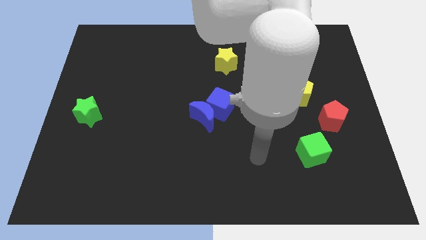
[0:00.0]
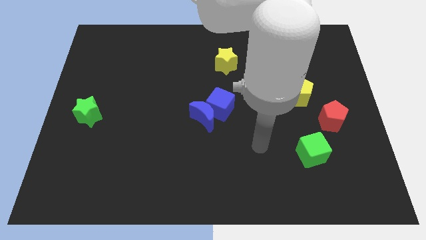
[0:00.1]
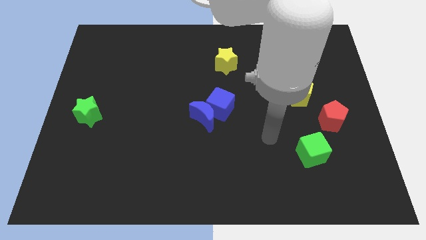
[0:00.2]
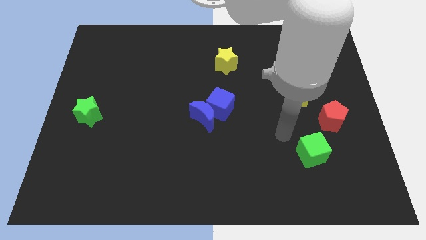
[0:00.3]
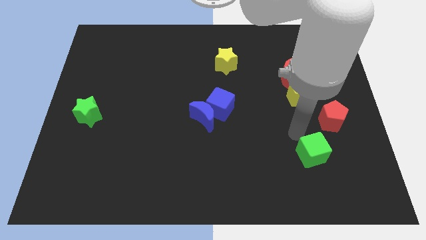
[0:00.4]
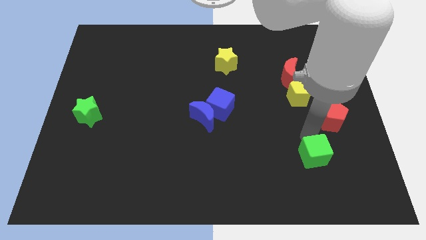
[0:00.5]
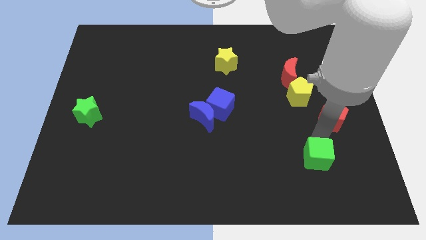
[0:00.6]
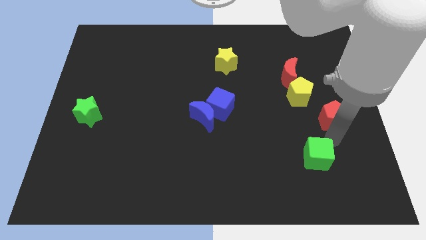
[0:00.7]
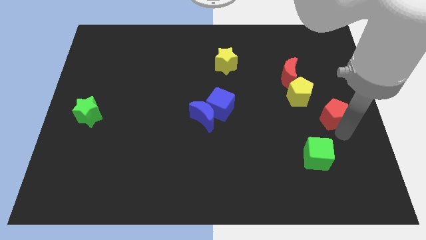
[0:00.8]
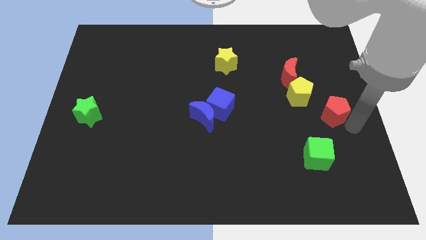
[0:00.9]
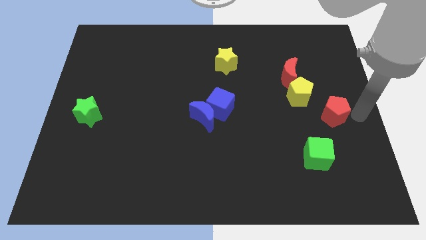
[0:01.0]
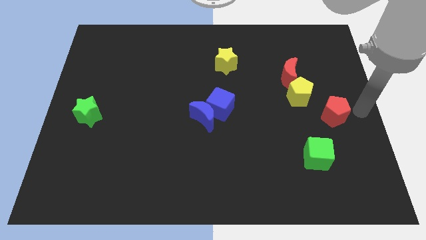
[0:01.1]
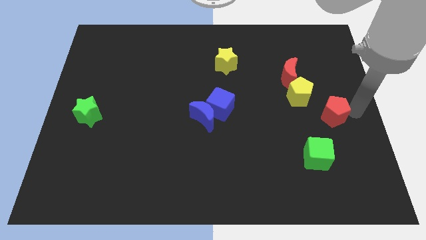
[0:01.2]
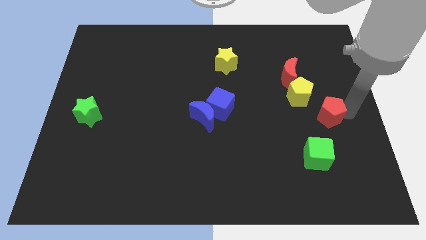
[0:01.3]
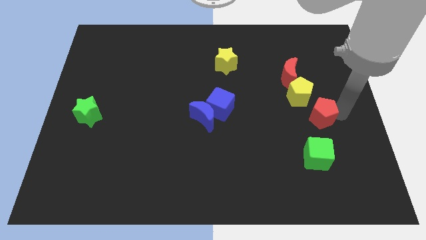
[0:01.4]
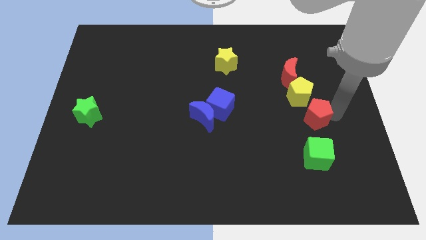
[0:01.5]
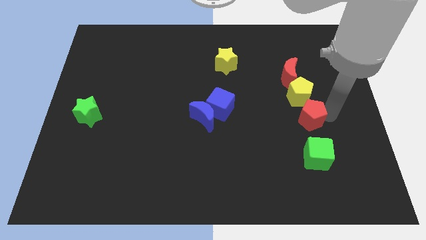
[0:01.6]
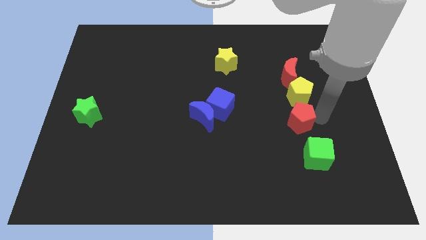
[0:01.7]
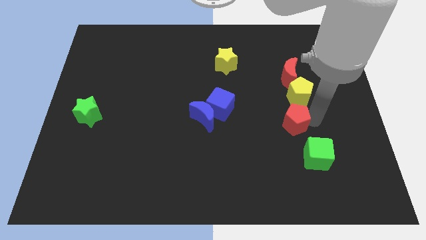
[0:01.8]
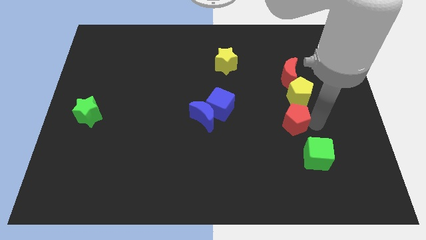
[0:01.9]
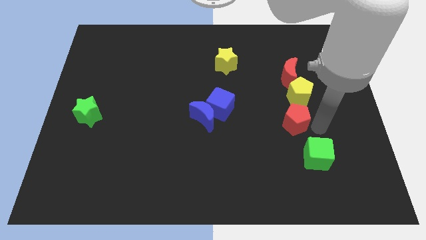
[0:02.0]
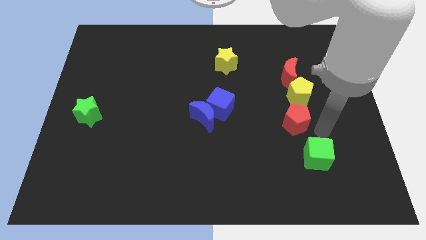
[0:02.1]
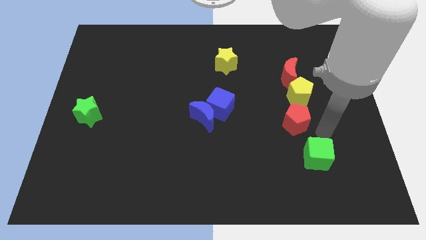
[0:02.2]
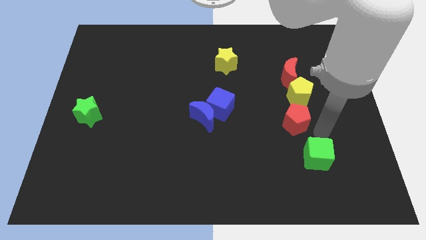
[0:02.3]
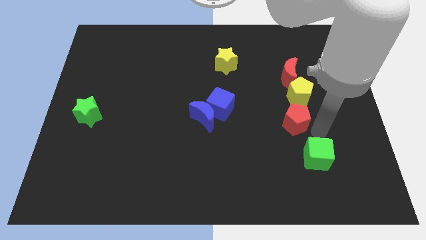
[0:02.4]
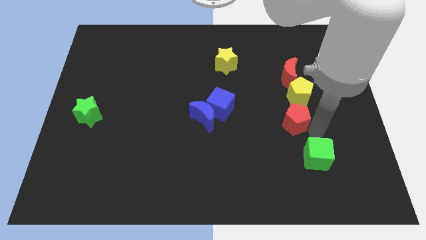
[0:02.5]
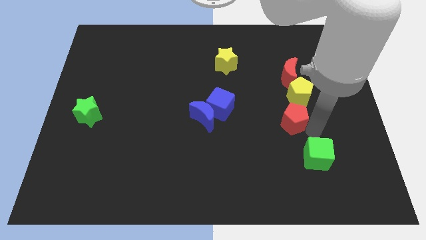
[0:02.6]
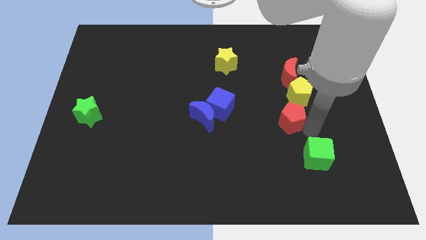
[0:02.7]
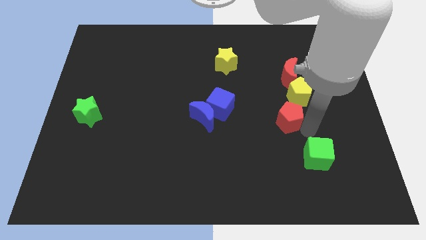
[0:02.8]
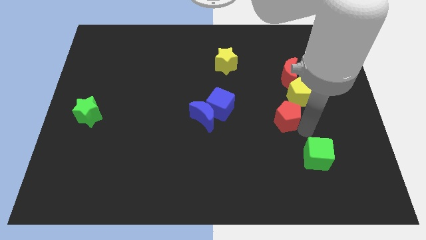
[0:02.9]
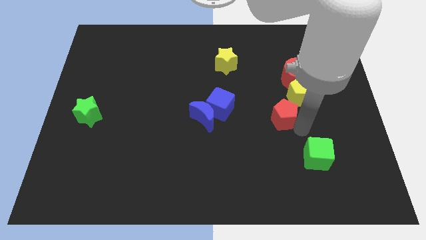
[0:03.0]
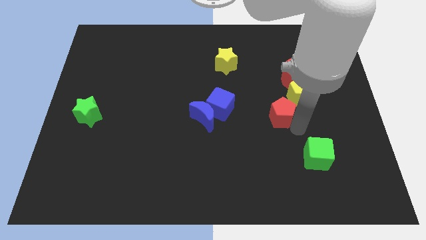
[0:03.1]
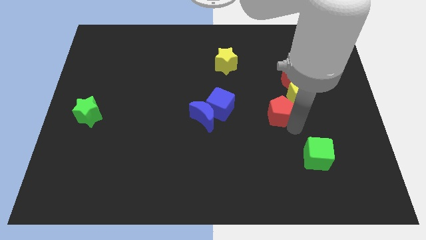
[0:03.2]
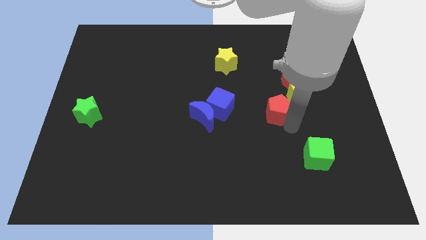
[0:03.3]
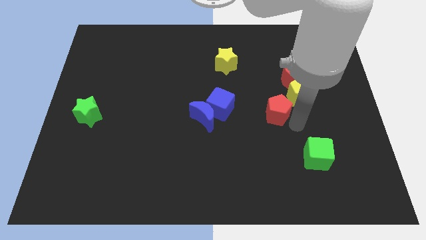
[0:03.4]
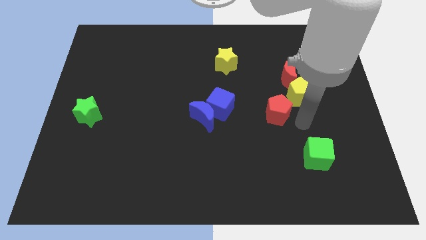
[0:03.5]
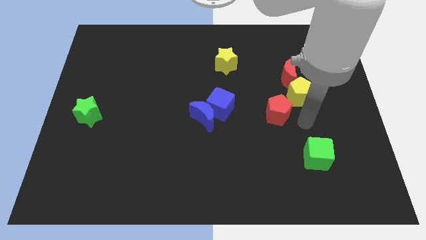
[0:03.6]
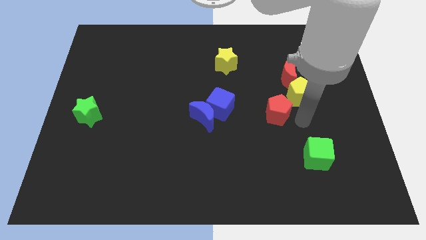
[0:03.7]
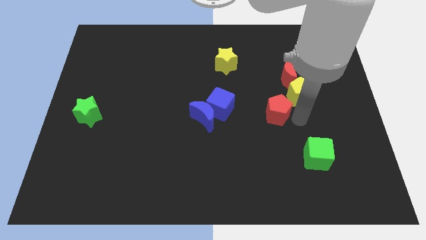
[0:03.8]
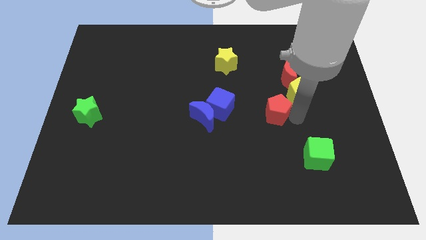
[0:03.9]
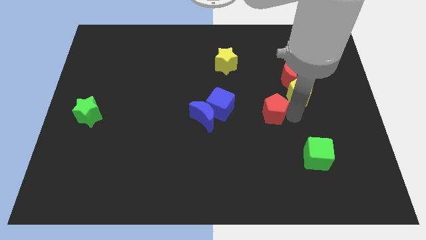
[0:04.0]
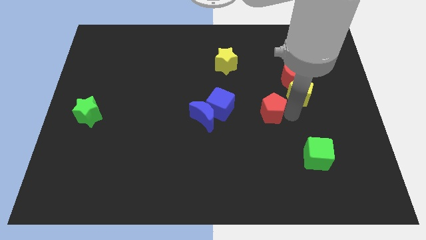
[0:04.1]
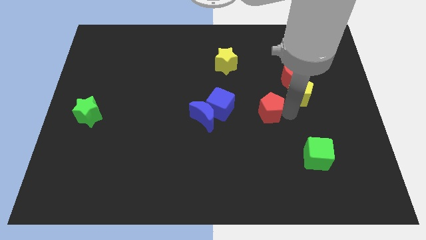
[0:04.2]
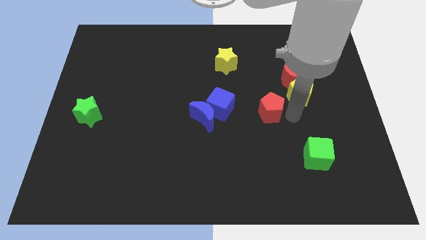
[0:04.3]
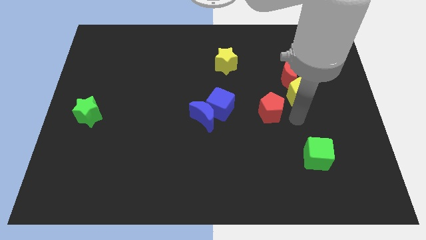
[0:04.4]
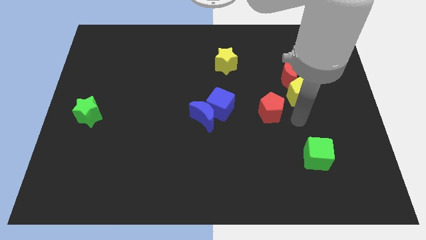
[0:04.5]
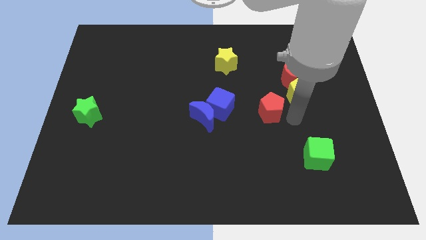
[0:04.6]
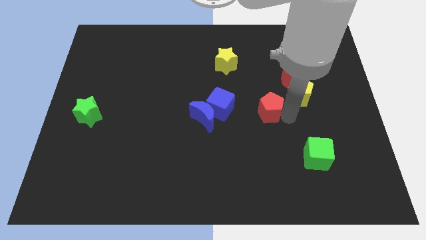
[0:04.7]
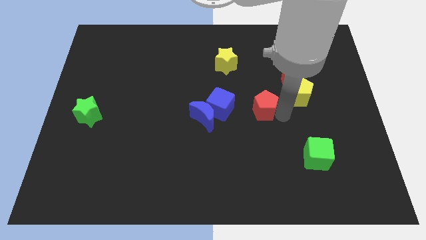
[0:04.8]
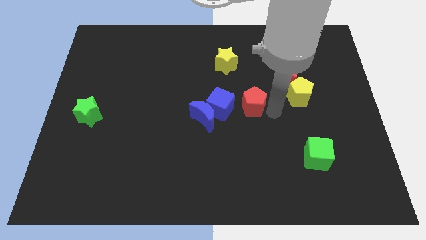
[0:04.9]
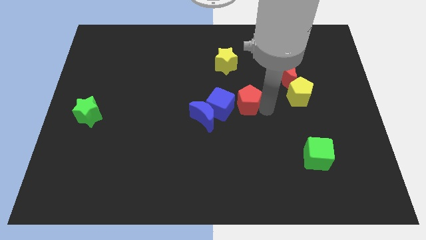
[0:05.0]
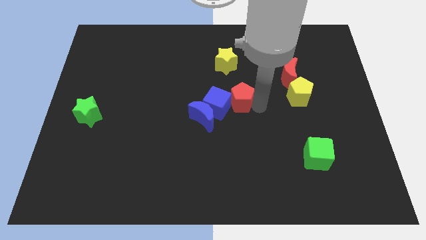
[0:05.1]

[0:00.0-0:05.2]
push the red pentagon to the top right side of the blue moon

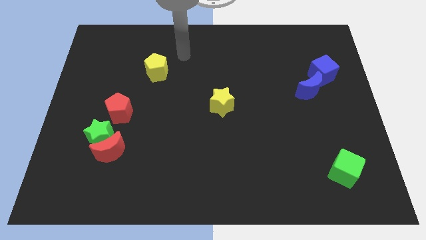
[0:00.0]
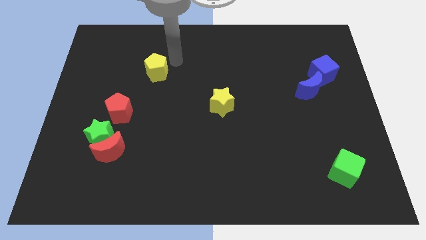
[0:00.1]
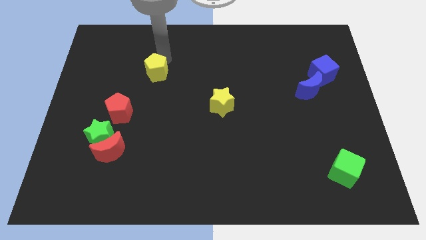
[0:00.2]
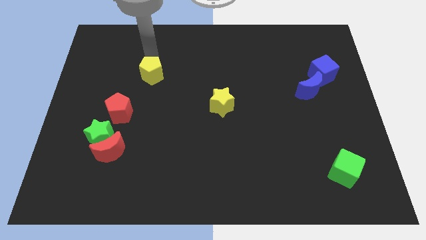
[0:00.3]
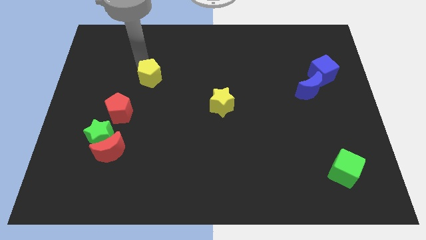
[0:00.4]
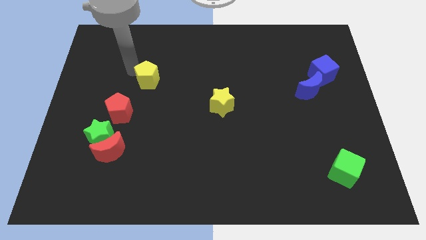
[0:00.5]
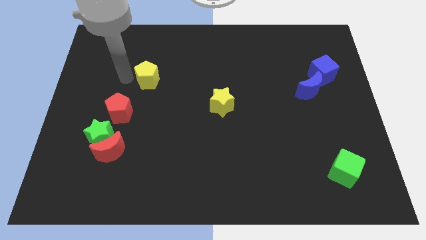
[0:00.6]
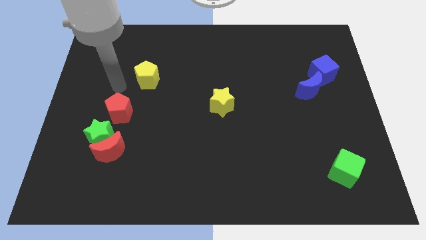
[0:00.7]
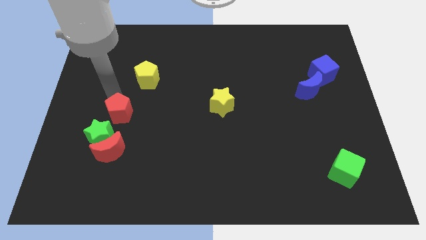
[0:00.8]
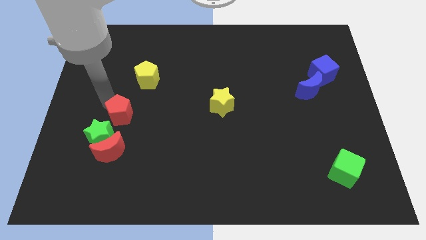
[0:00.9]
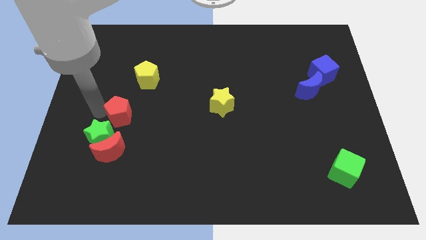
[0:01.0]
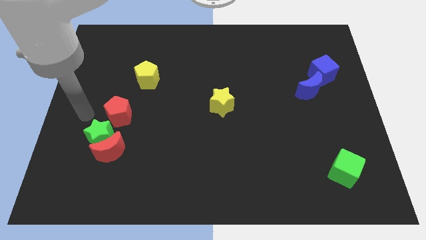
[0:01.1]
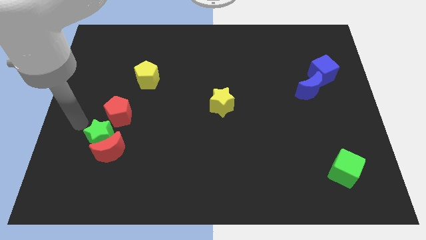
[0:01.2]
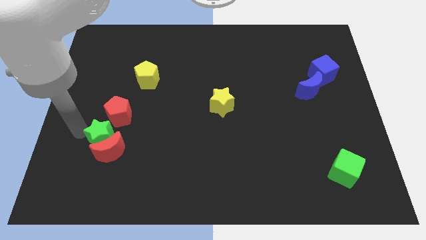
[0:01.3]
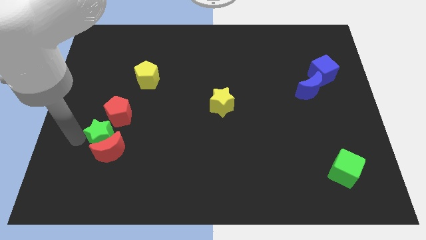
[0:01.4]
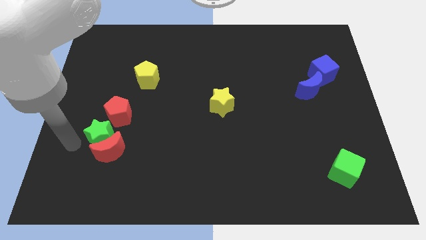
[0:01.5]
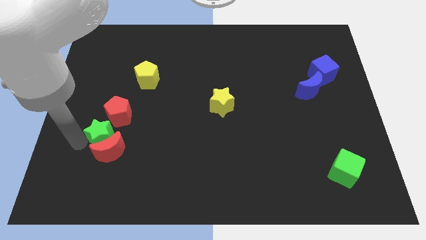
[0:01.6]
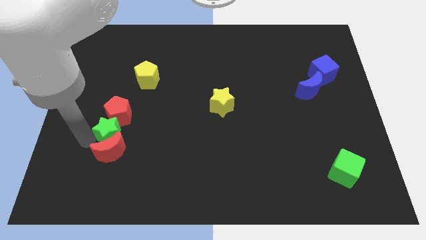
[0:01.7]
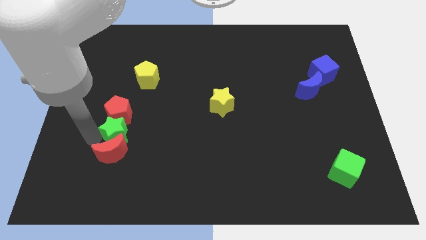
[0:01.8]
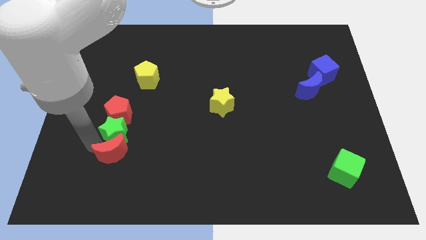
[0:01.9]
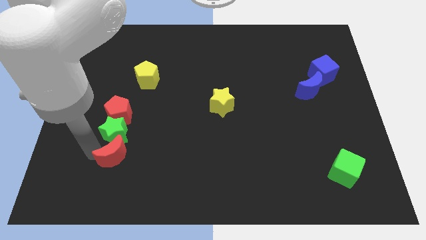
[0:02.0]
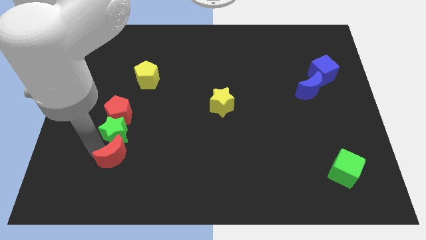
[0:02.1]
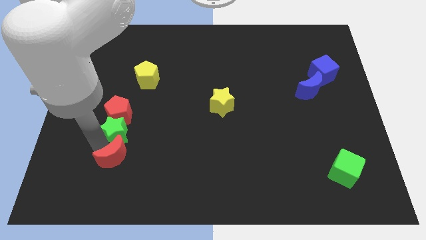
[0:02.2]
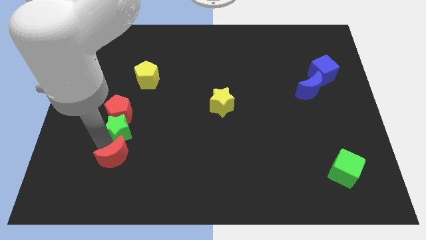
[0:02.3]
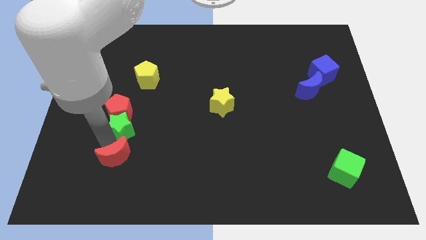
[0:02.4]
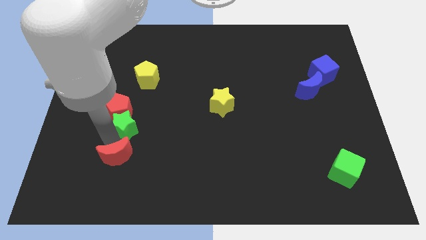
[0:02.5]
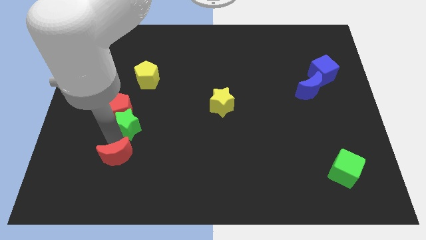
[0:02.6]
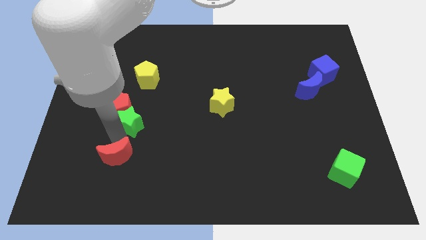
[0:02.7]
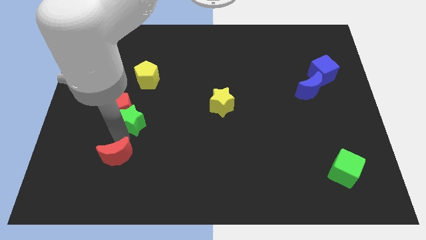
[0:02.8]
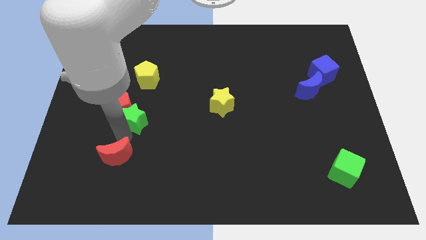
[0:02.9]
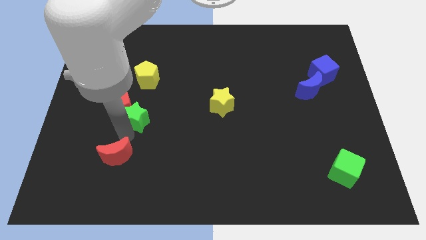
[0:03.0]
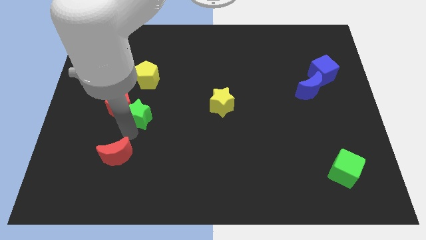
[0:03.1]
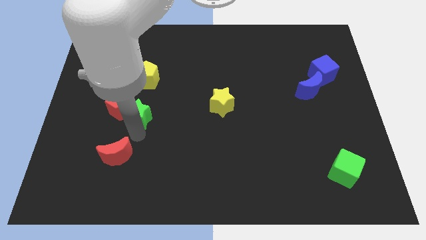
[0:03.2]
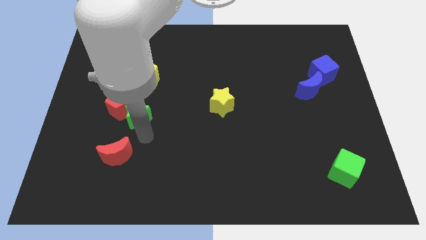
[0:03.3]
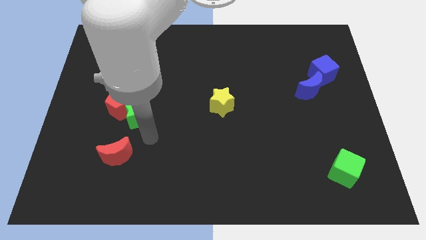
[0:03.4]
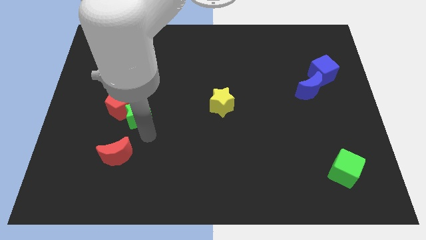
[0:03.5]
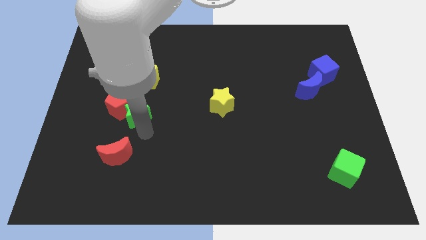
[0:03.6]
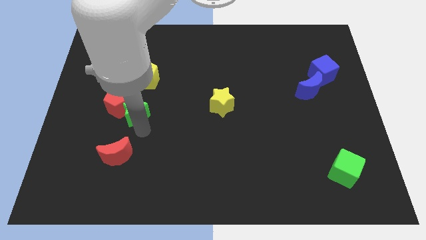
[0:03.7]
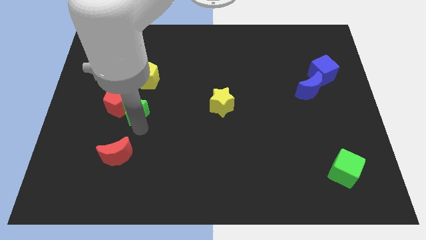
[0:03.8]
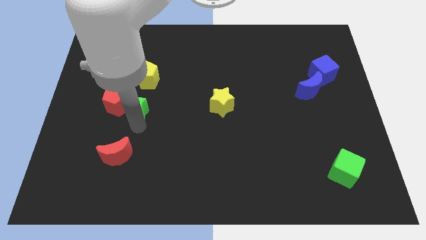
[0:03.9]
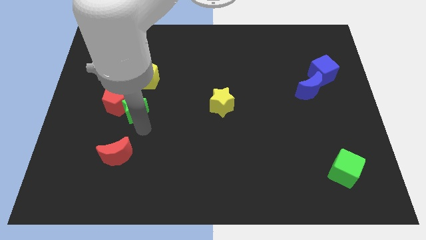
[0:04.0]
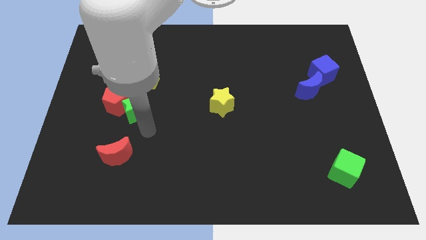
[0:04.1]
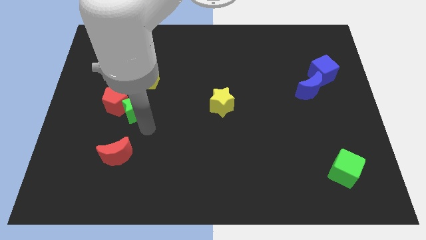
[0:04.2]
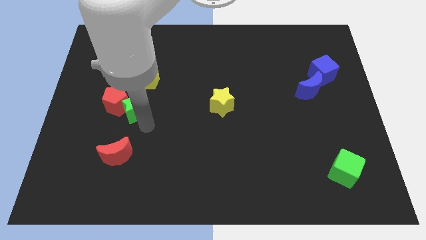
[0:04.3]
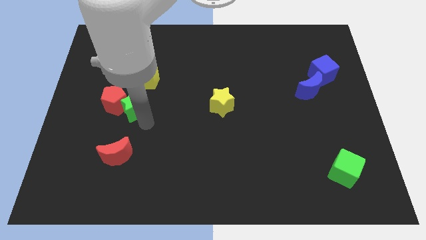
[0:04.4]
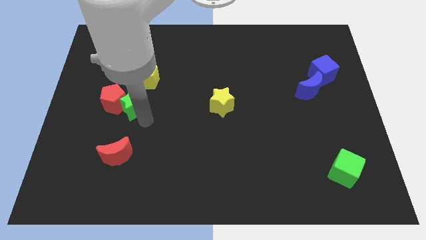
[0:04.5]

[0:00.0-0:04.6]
put the green star to the bottom left side of the yellow pentagon
